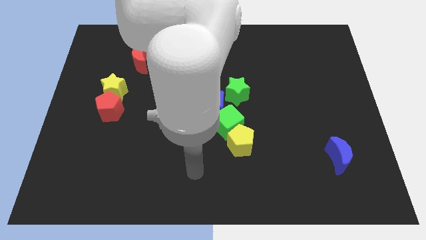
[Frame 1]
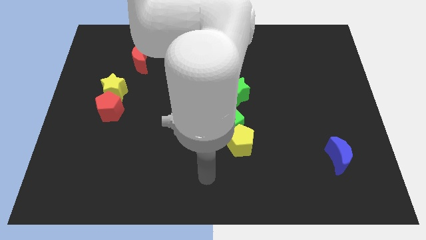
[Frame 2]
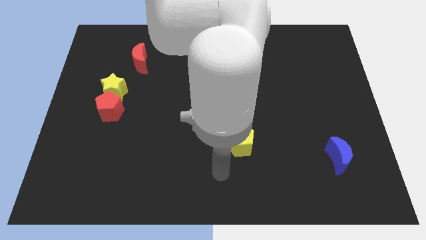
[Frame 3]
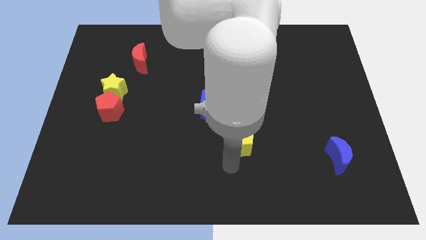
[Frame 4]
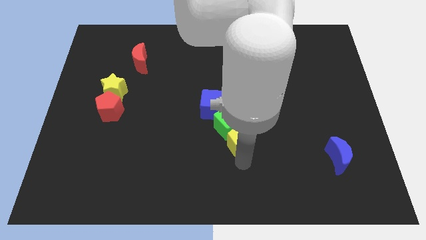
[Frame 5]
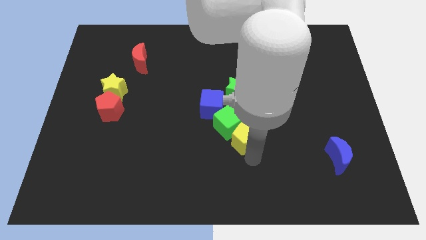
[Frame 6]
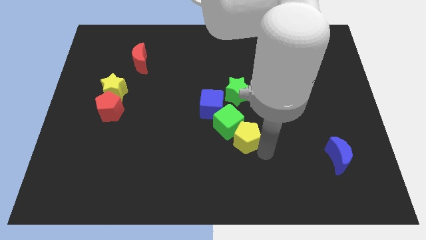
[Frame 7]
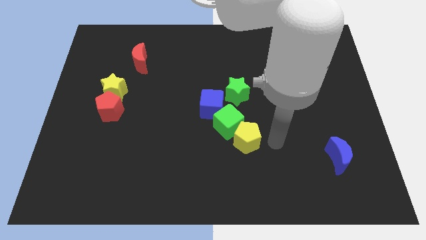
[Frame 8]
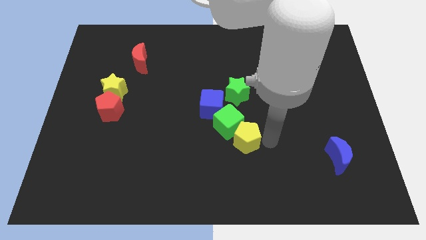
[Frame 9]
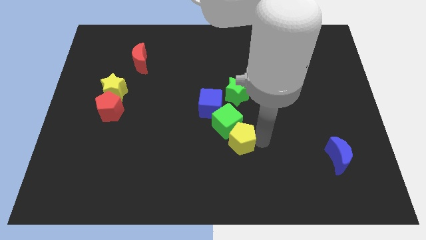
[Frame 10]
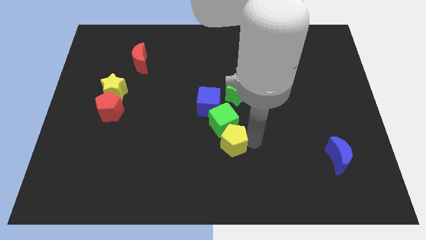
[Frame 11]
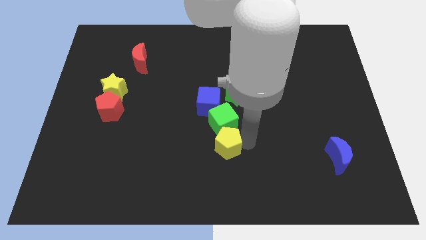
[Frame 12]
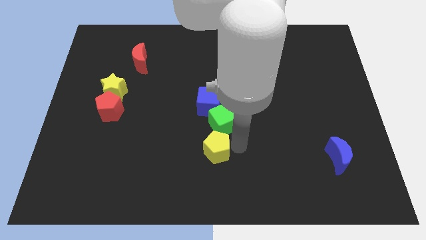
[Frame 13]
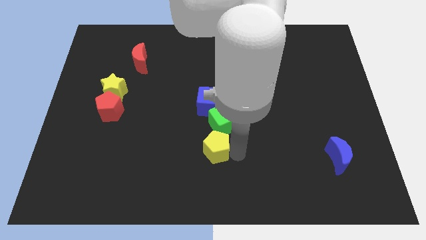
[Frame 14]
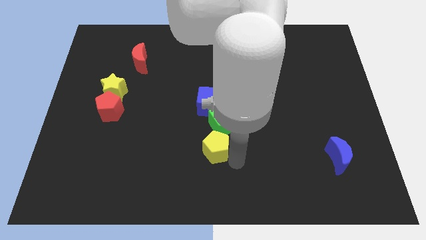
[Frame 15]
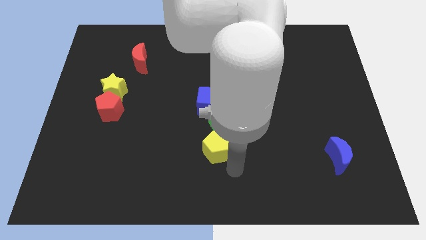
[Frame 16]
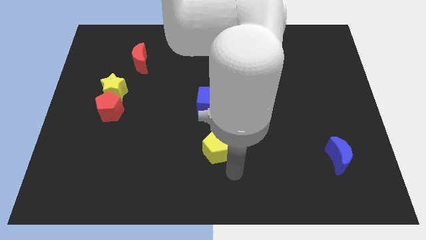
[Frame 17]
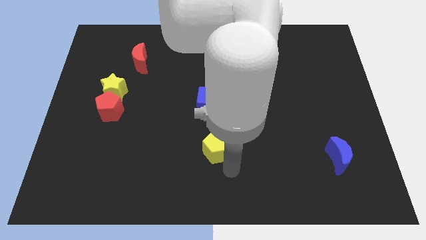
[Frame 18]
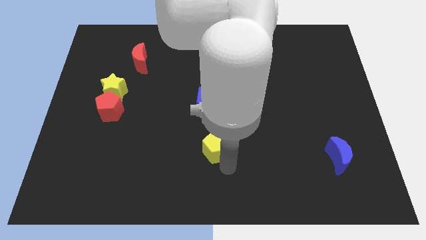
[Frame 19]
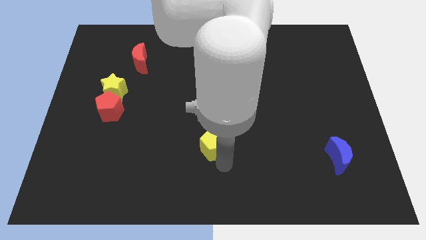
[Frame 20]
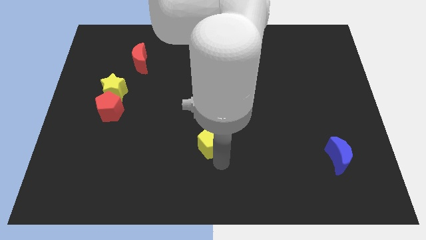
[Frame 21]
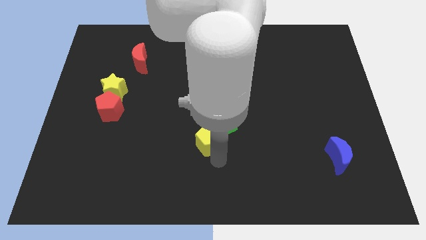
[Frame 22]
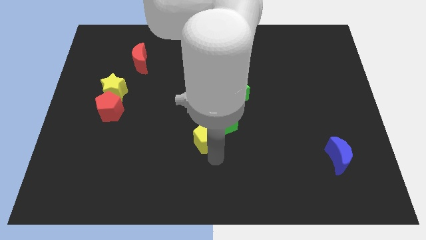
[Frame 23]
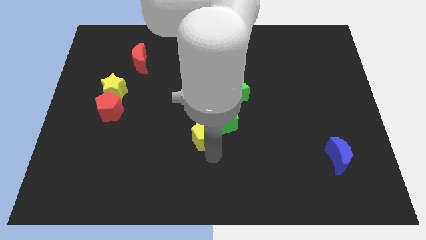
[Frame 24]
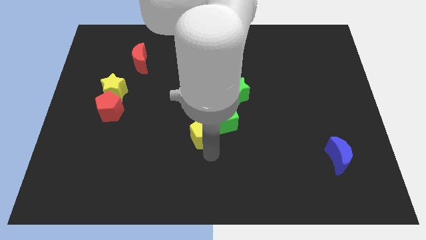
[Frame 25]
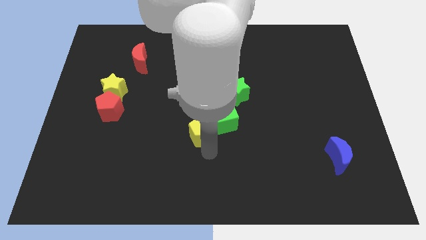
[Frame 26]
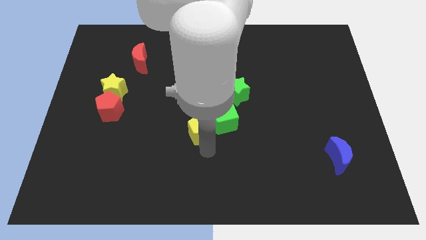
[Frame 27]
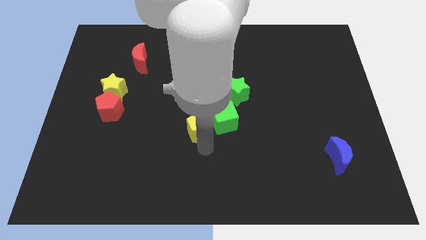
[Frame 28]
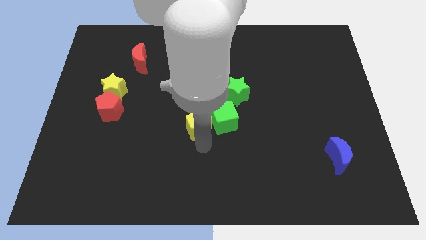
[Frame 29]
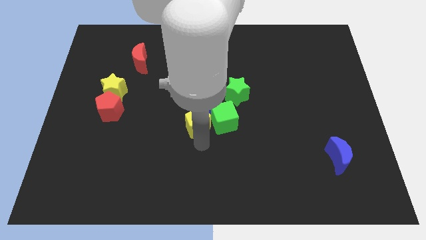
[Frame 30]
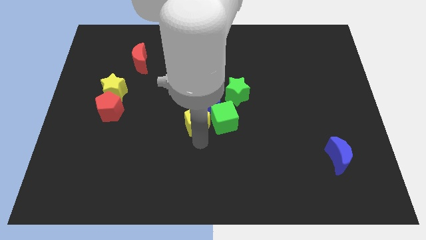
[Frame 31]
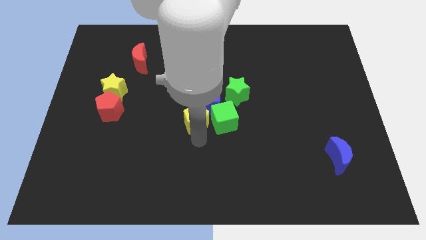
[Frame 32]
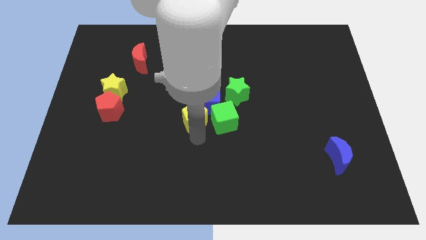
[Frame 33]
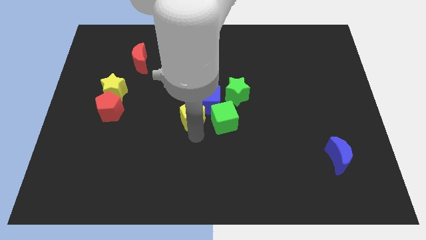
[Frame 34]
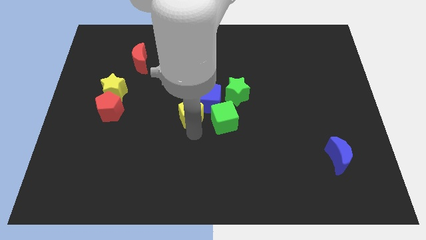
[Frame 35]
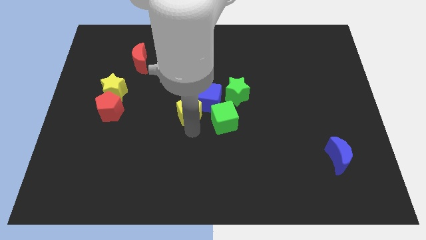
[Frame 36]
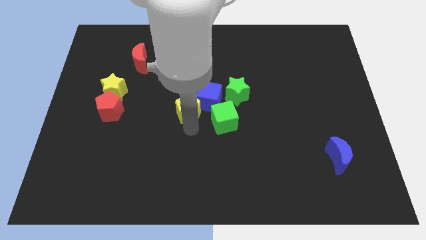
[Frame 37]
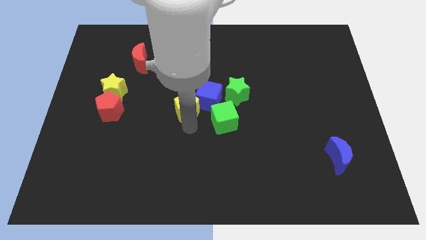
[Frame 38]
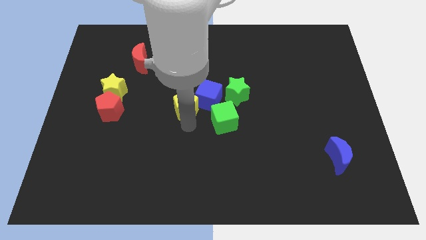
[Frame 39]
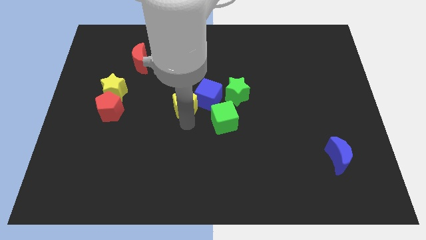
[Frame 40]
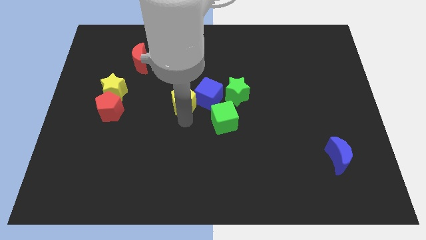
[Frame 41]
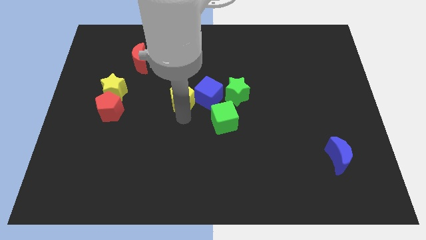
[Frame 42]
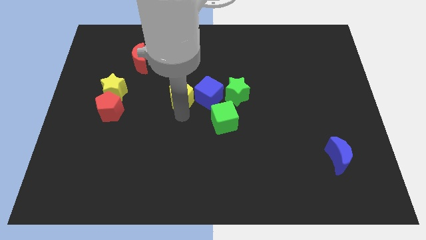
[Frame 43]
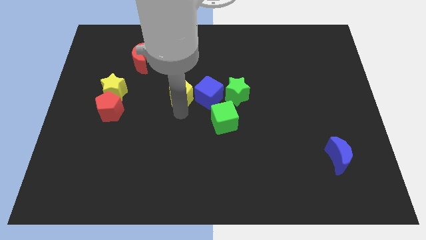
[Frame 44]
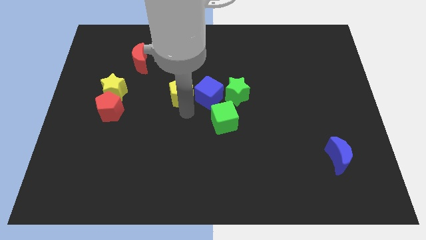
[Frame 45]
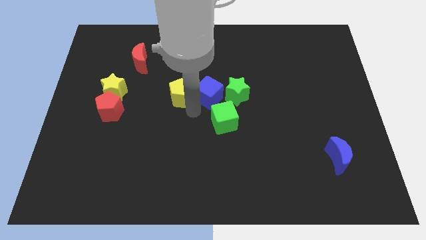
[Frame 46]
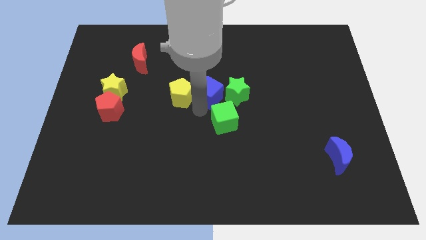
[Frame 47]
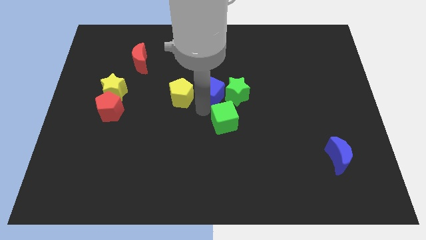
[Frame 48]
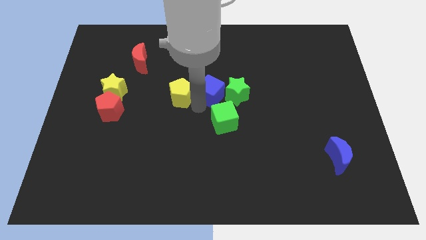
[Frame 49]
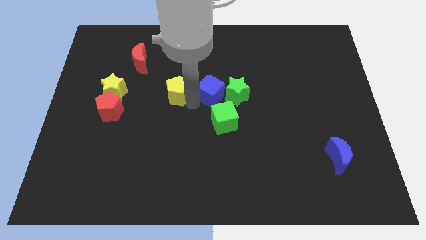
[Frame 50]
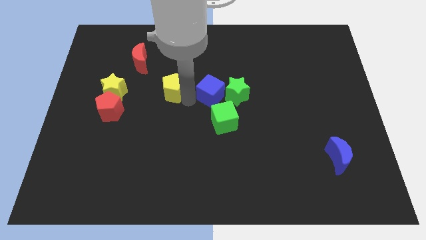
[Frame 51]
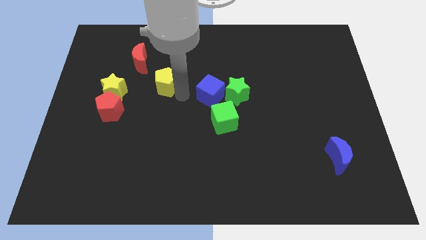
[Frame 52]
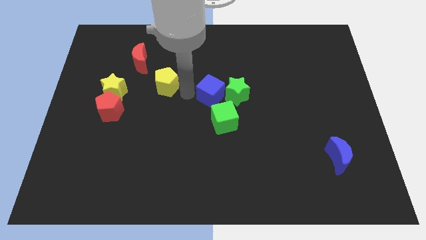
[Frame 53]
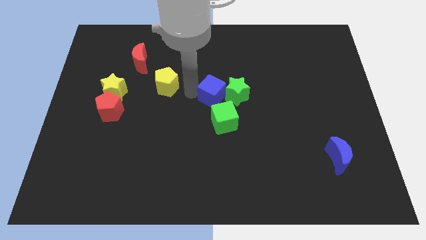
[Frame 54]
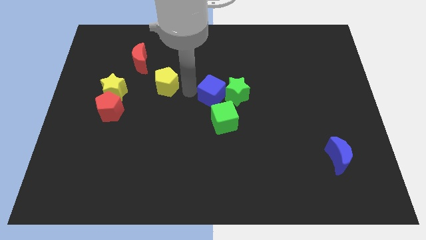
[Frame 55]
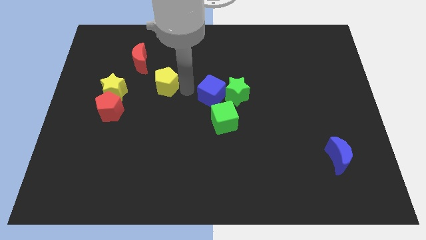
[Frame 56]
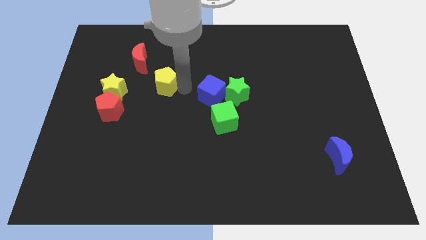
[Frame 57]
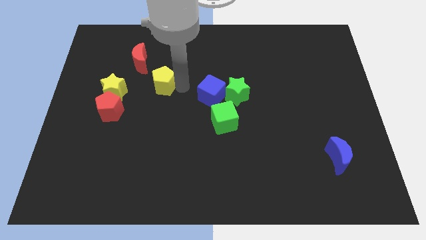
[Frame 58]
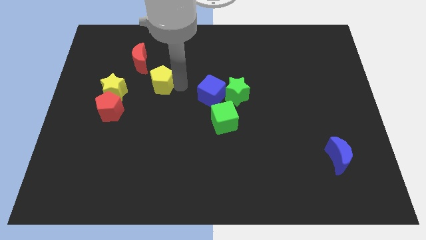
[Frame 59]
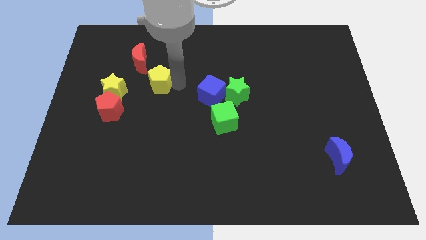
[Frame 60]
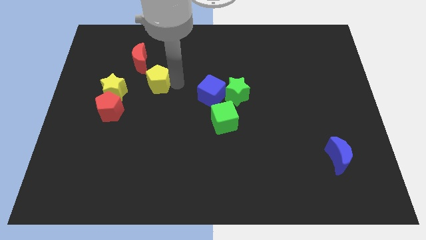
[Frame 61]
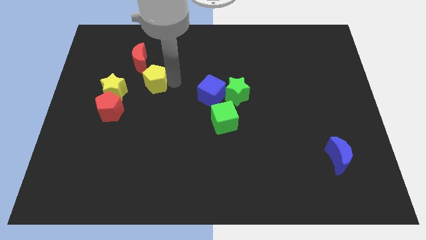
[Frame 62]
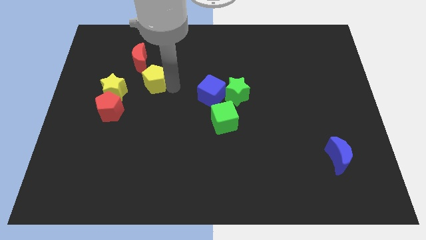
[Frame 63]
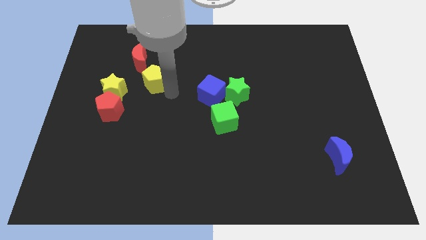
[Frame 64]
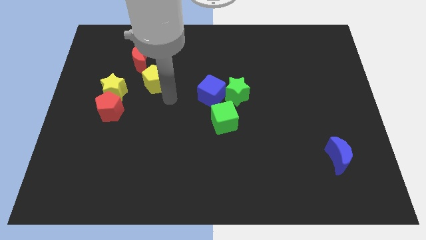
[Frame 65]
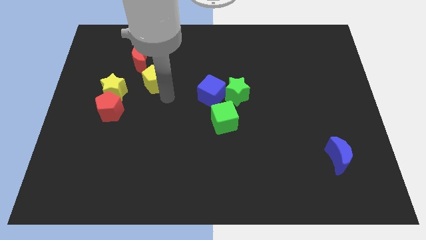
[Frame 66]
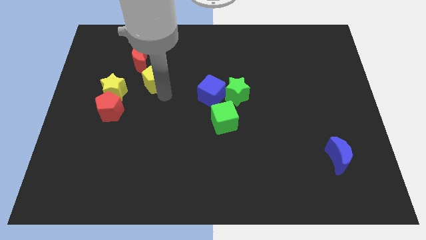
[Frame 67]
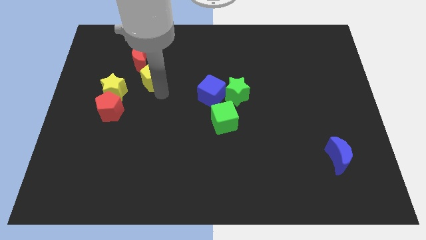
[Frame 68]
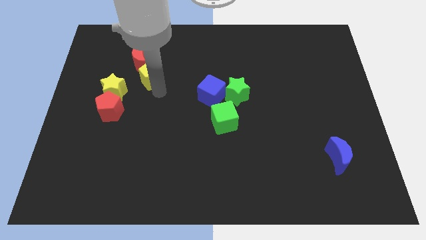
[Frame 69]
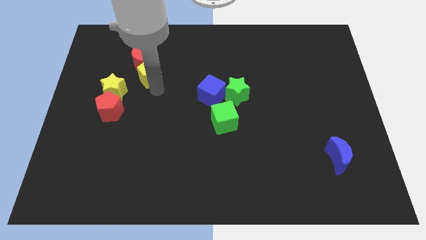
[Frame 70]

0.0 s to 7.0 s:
slide the yellow pentagon close to the red moon
